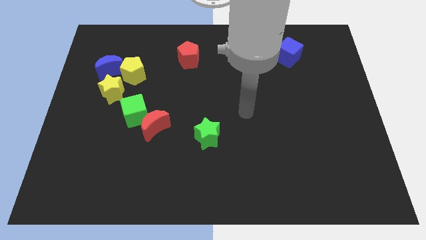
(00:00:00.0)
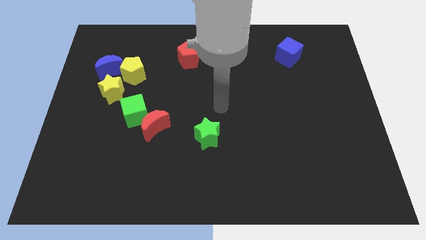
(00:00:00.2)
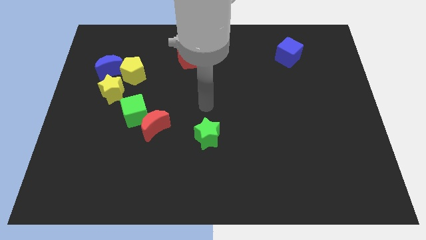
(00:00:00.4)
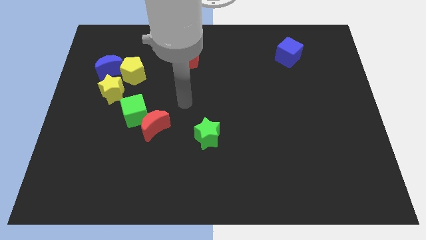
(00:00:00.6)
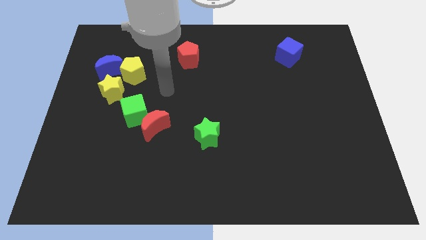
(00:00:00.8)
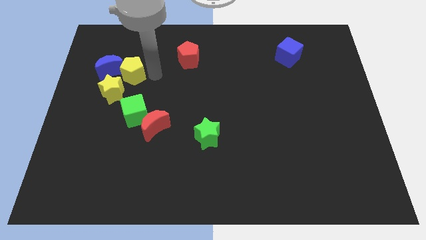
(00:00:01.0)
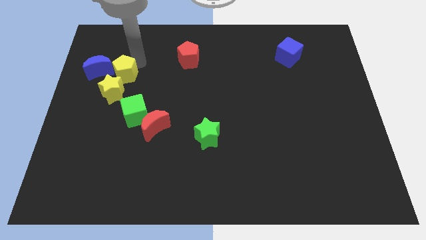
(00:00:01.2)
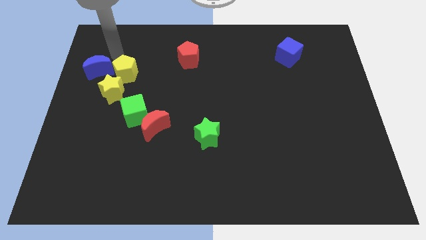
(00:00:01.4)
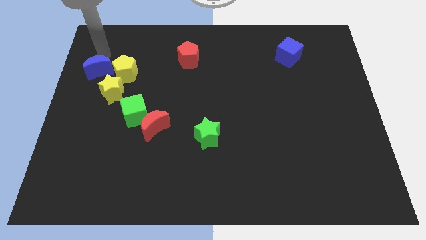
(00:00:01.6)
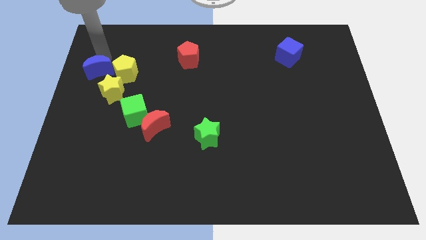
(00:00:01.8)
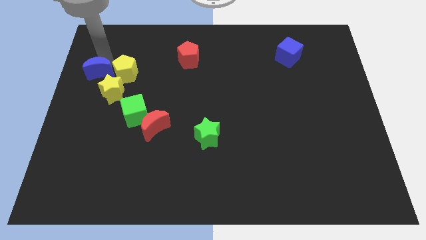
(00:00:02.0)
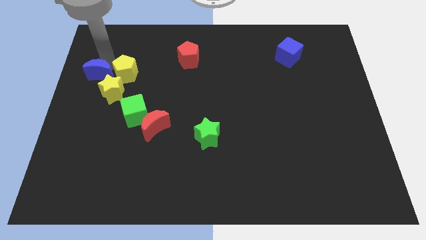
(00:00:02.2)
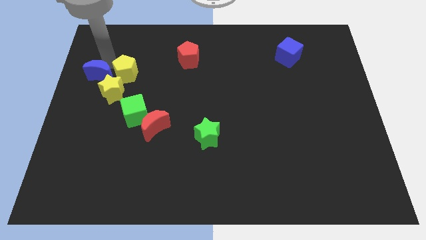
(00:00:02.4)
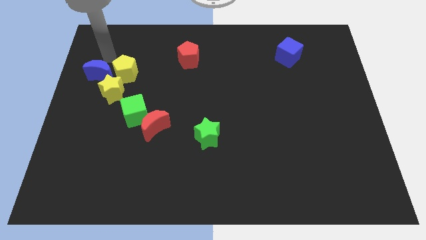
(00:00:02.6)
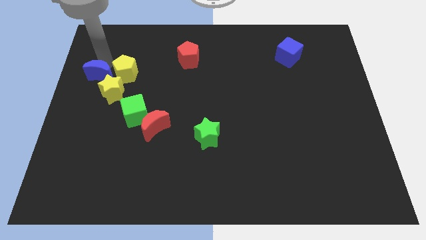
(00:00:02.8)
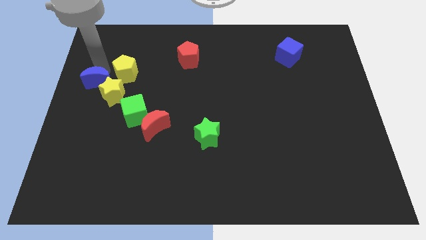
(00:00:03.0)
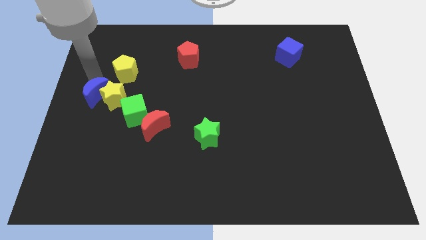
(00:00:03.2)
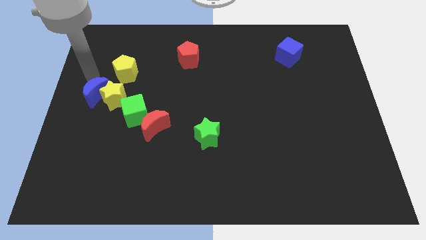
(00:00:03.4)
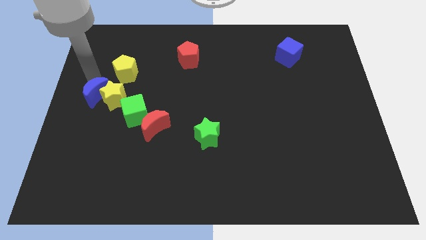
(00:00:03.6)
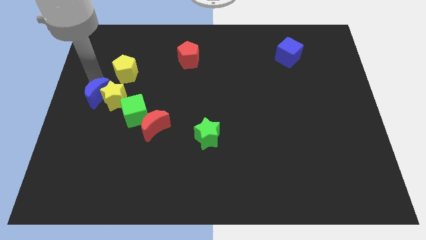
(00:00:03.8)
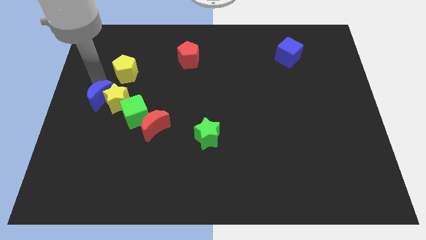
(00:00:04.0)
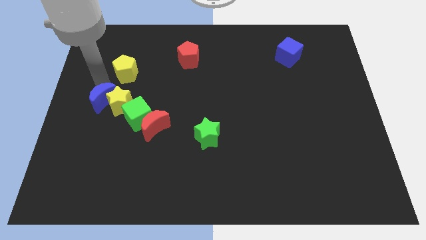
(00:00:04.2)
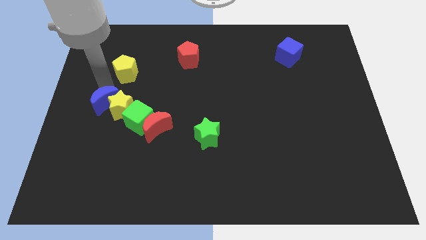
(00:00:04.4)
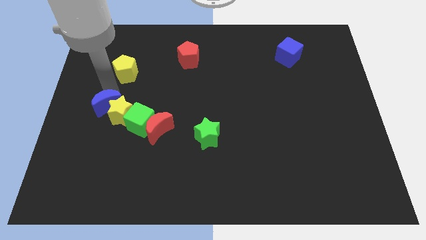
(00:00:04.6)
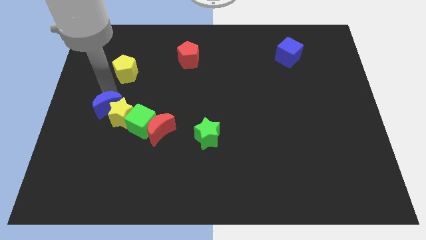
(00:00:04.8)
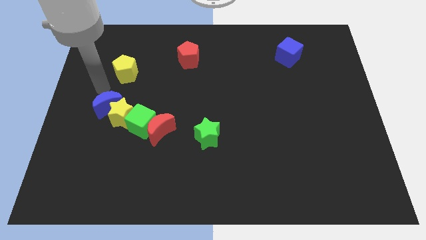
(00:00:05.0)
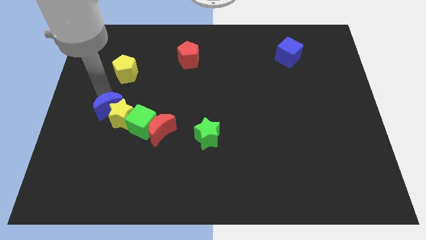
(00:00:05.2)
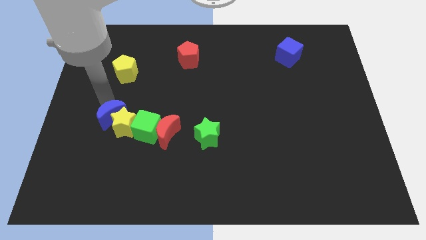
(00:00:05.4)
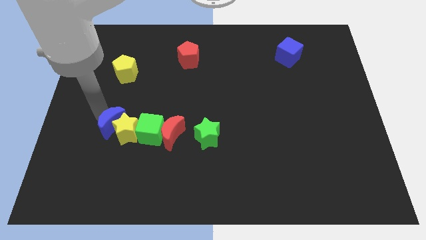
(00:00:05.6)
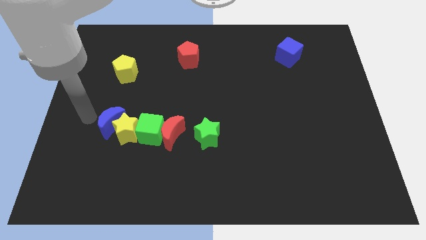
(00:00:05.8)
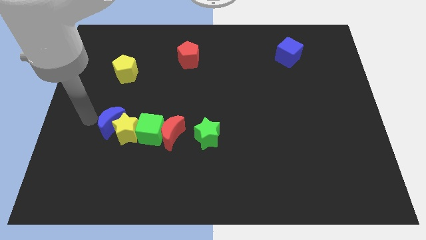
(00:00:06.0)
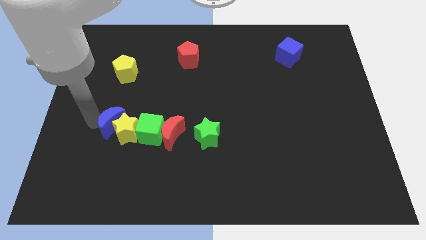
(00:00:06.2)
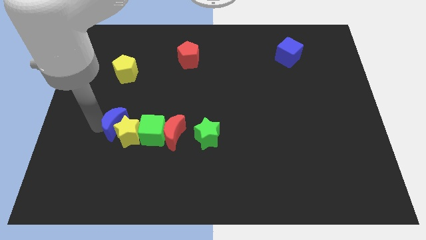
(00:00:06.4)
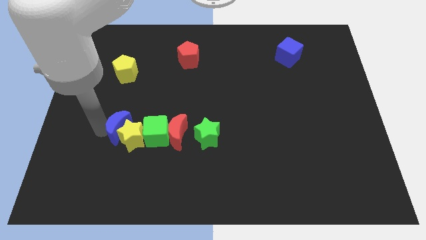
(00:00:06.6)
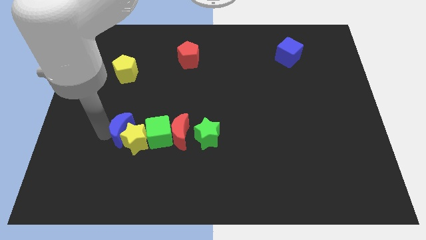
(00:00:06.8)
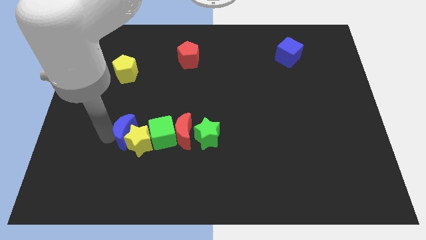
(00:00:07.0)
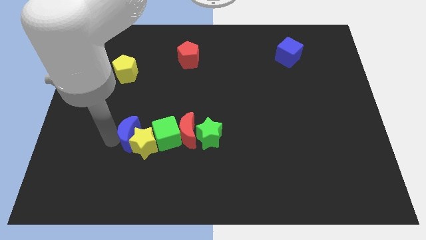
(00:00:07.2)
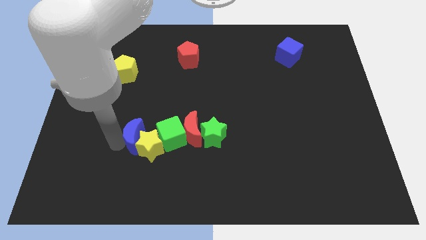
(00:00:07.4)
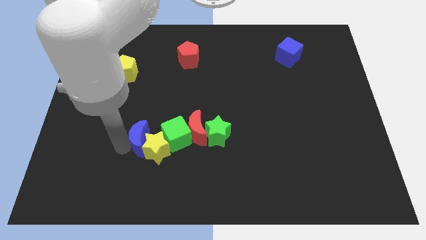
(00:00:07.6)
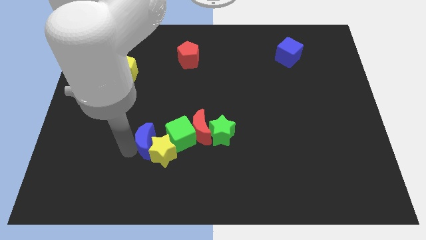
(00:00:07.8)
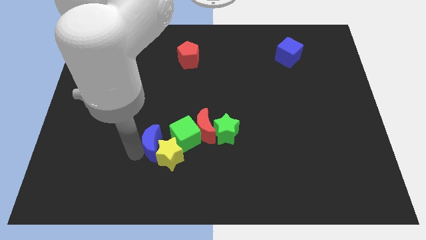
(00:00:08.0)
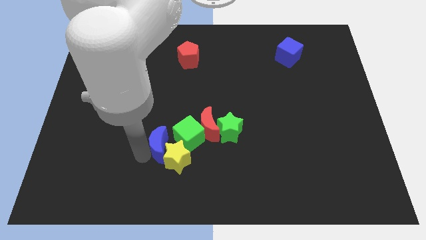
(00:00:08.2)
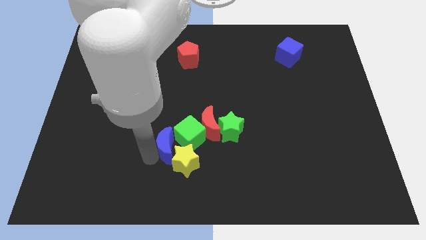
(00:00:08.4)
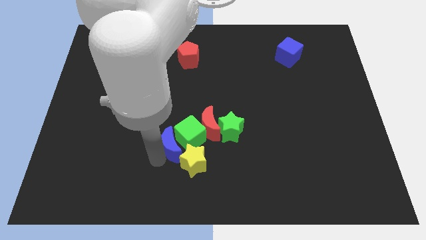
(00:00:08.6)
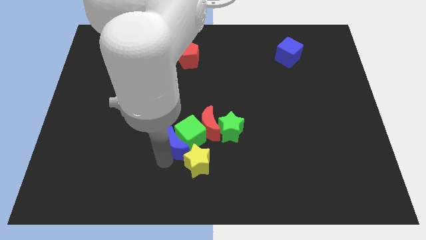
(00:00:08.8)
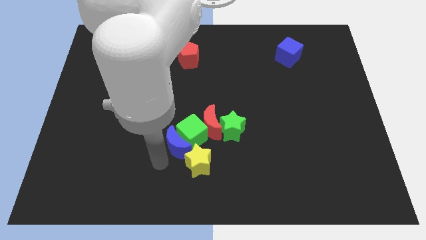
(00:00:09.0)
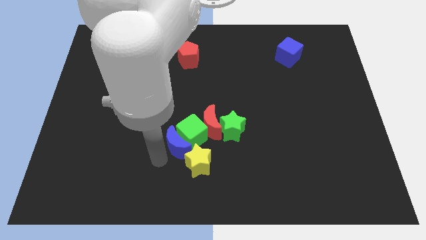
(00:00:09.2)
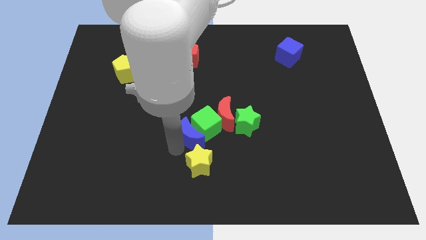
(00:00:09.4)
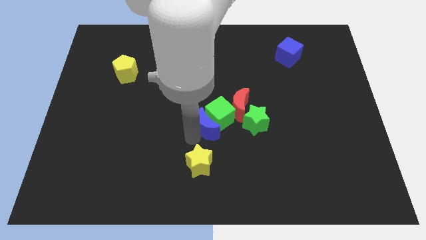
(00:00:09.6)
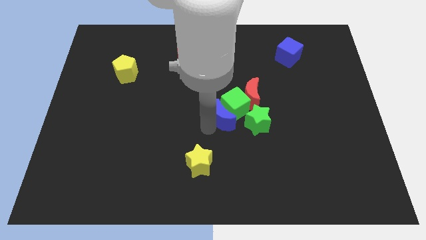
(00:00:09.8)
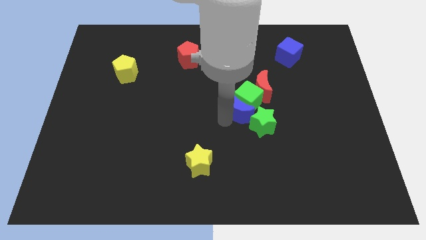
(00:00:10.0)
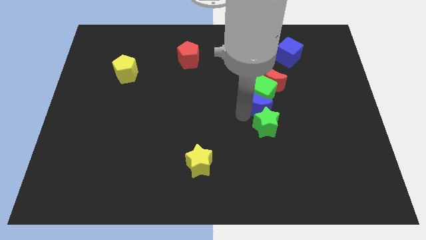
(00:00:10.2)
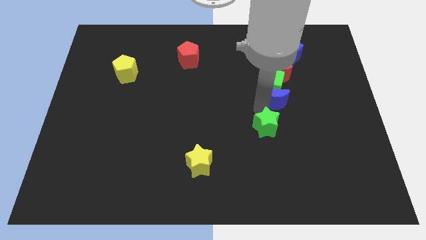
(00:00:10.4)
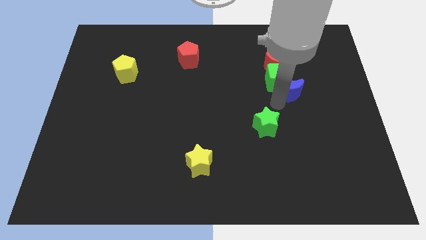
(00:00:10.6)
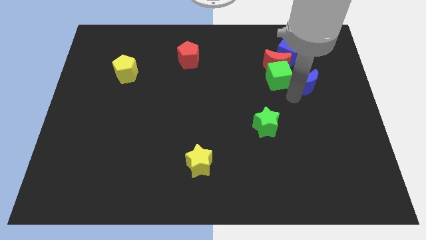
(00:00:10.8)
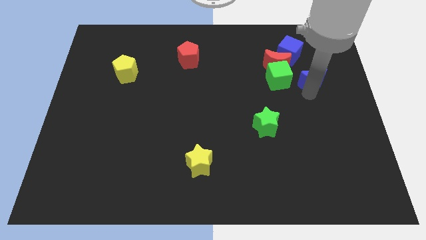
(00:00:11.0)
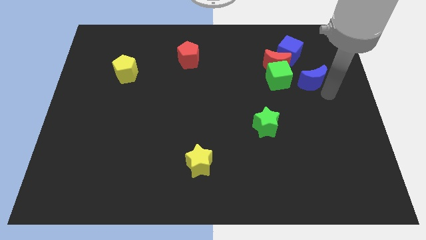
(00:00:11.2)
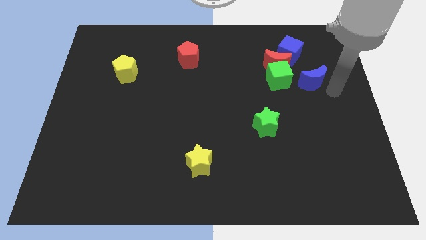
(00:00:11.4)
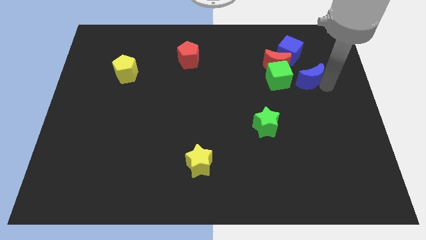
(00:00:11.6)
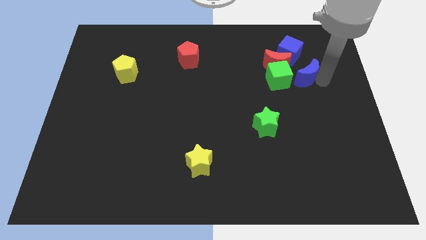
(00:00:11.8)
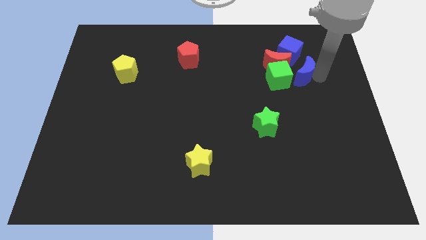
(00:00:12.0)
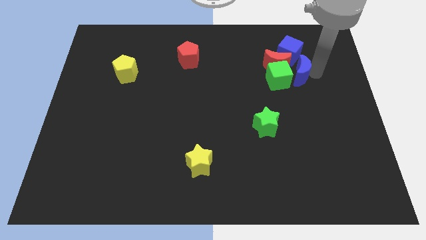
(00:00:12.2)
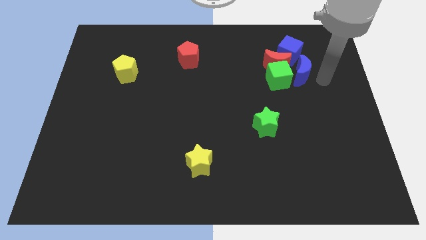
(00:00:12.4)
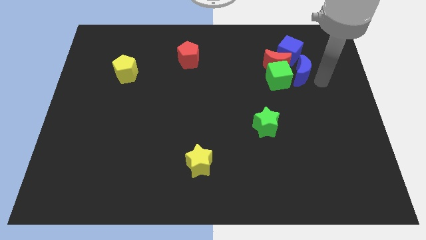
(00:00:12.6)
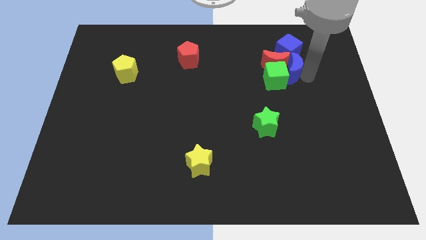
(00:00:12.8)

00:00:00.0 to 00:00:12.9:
put the blue moon next to the red moon
